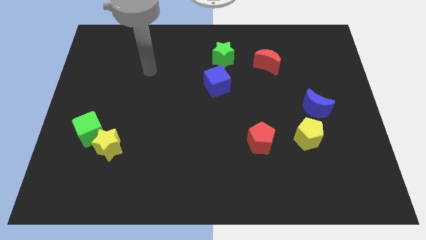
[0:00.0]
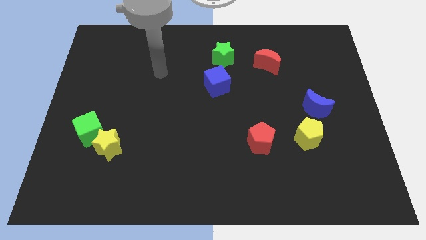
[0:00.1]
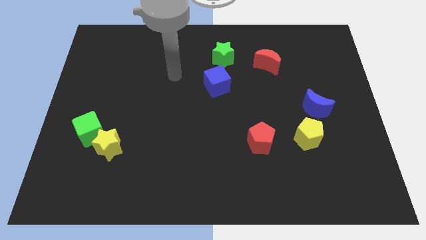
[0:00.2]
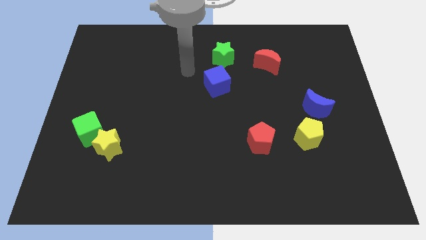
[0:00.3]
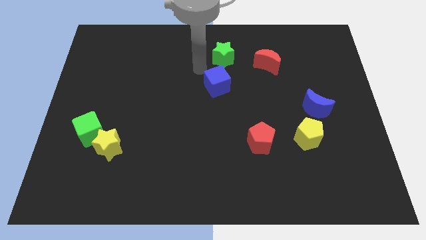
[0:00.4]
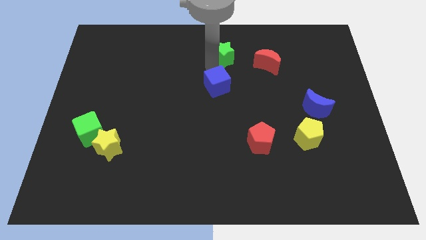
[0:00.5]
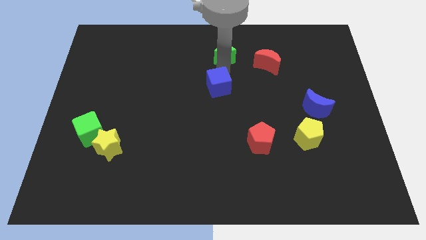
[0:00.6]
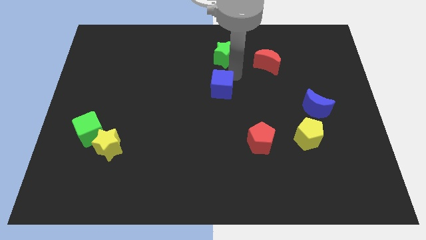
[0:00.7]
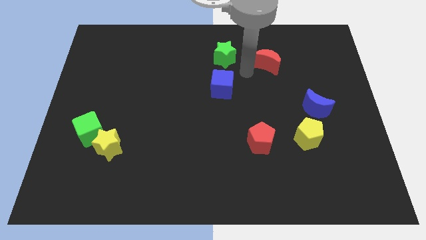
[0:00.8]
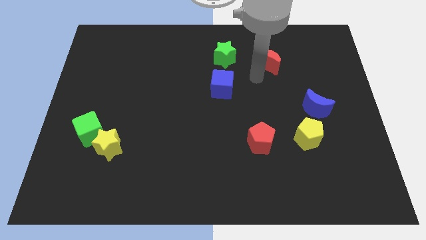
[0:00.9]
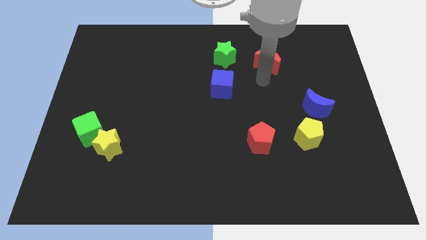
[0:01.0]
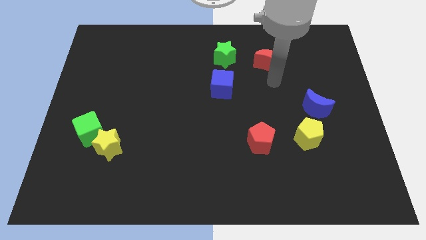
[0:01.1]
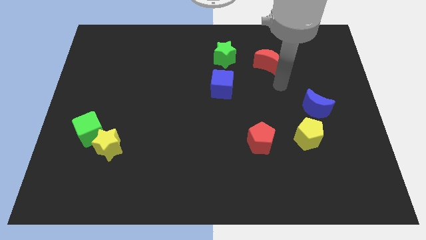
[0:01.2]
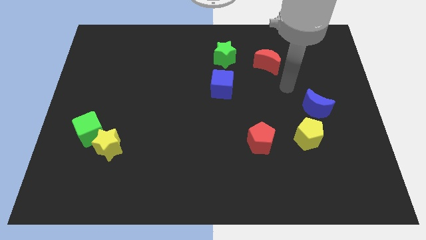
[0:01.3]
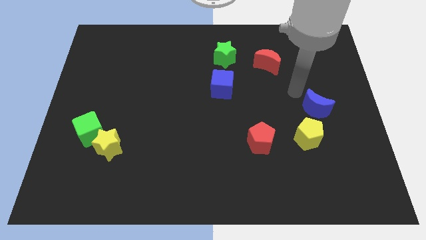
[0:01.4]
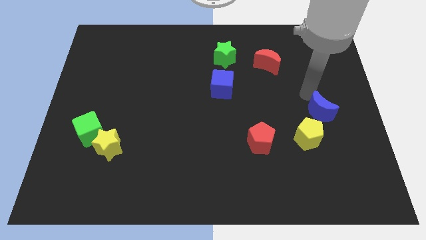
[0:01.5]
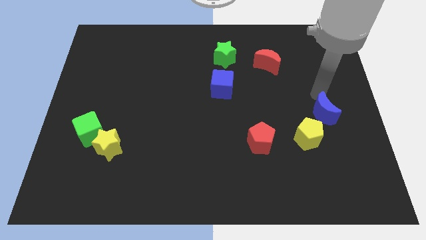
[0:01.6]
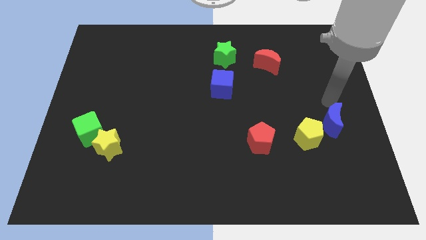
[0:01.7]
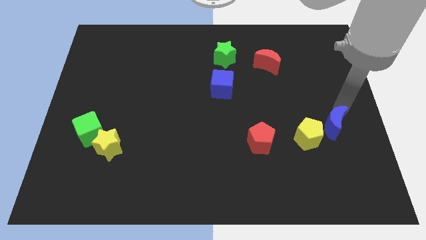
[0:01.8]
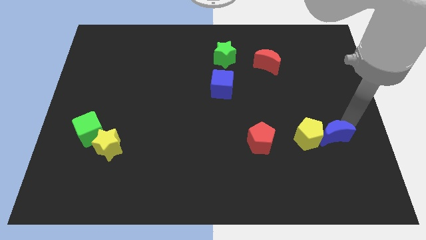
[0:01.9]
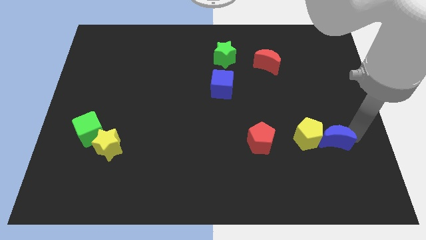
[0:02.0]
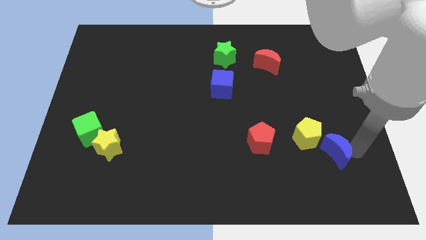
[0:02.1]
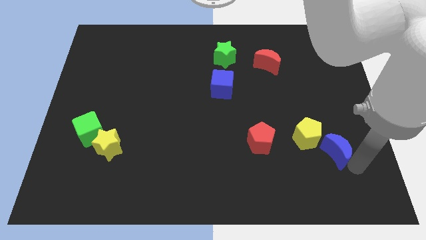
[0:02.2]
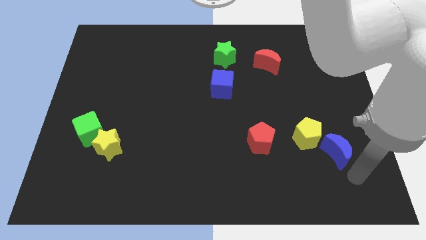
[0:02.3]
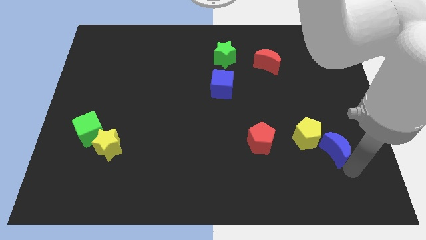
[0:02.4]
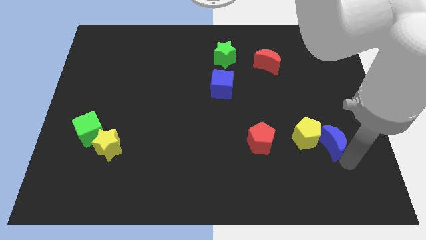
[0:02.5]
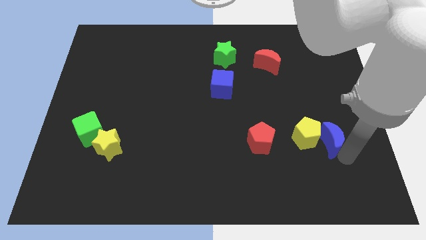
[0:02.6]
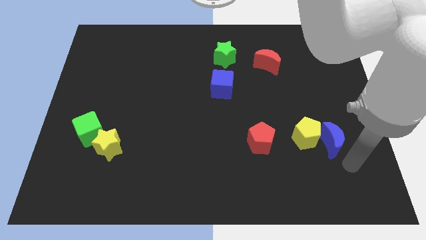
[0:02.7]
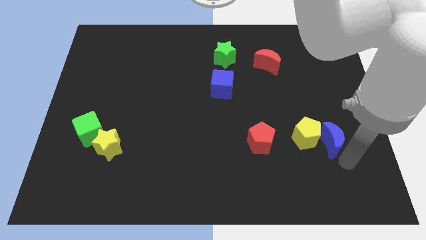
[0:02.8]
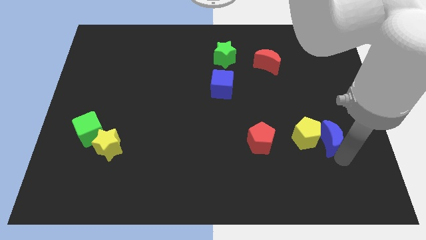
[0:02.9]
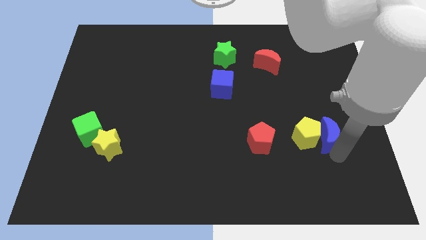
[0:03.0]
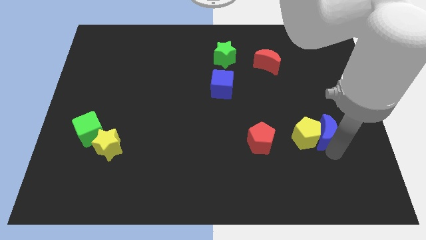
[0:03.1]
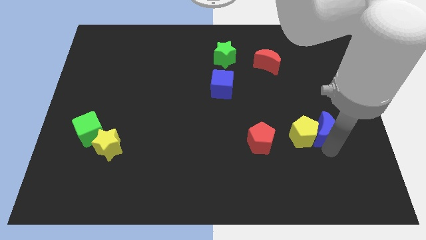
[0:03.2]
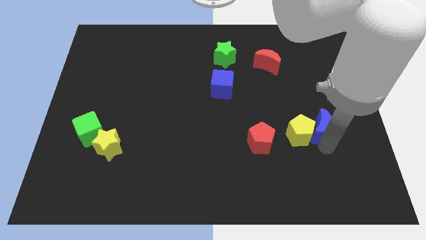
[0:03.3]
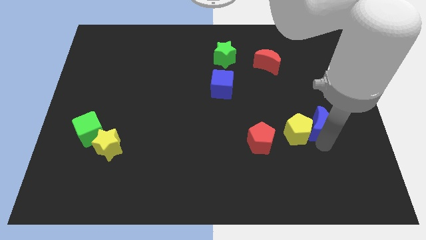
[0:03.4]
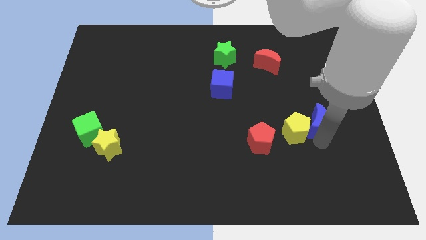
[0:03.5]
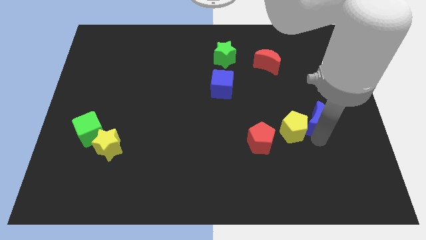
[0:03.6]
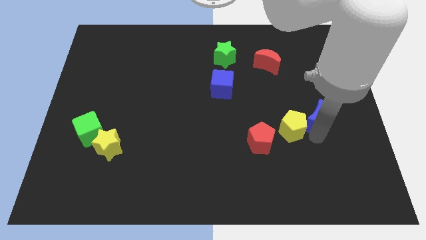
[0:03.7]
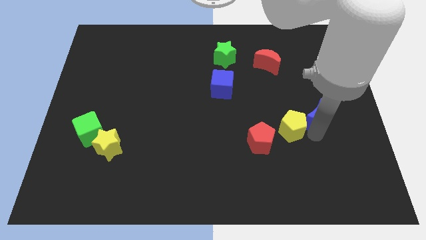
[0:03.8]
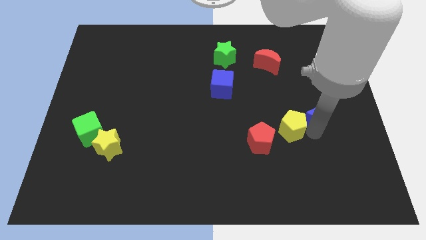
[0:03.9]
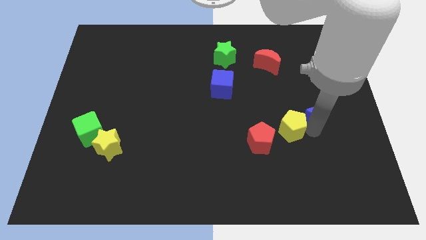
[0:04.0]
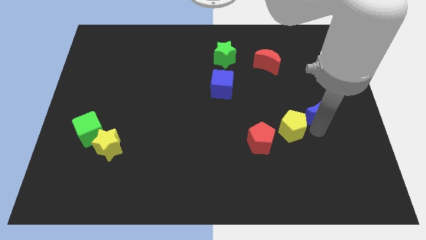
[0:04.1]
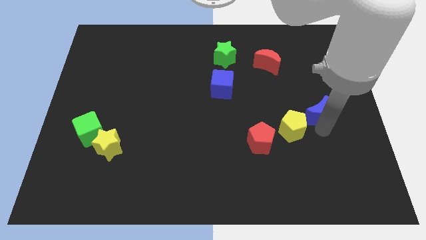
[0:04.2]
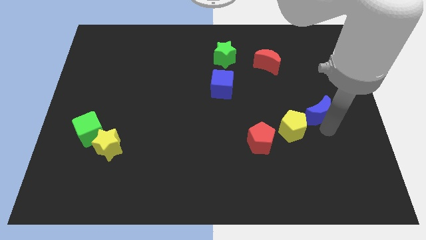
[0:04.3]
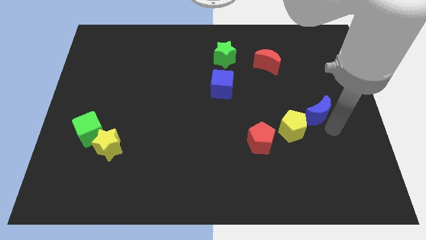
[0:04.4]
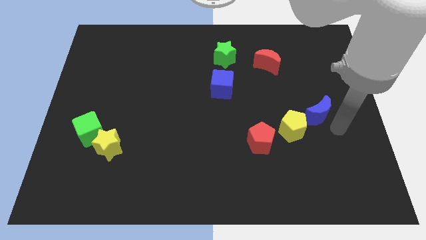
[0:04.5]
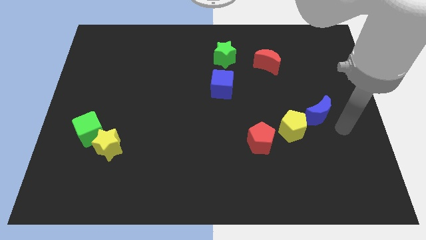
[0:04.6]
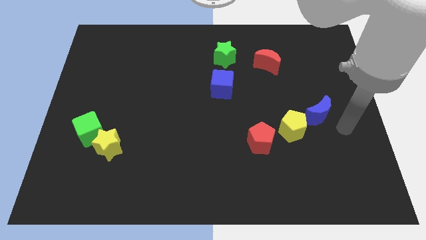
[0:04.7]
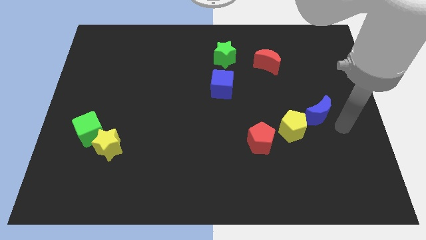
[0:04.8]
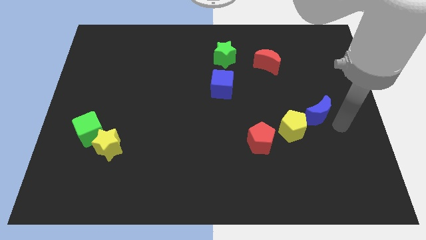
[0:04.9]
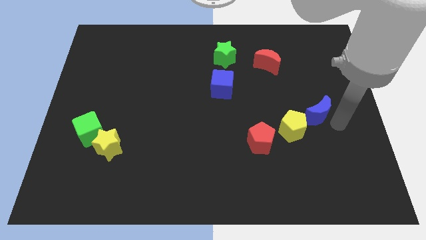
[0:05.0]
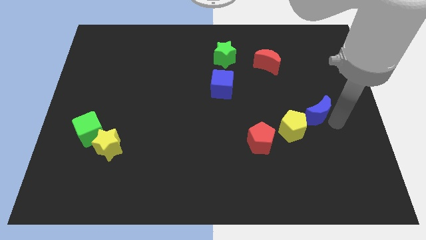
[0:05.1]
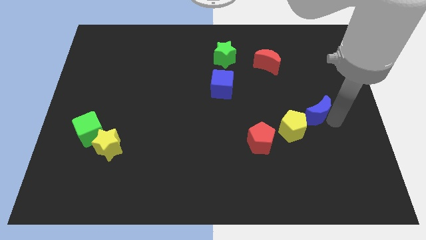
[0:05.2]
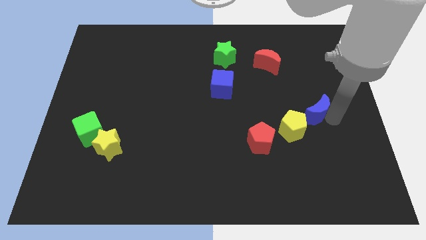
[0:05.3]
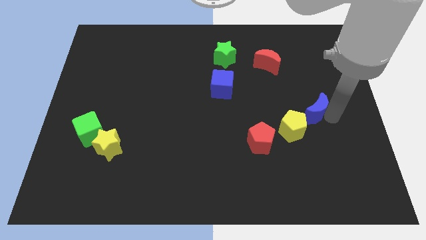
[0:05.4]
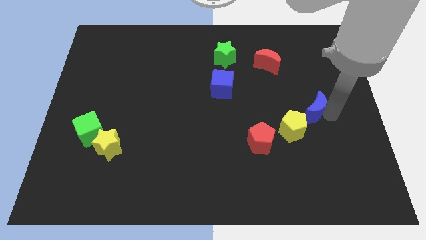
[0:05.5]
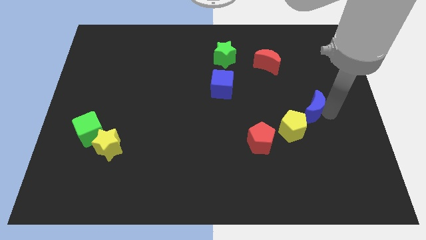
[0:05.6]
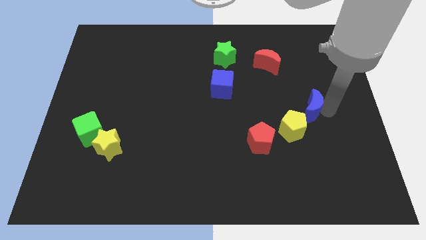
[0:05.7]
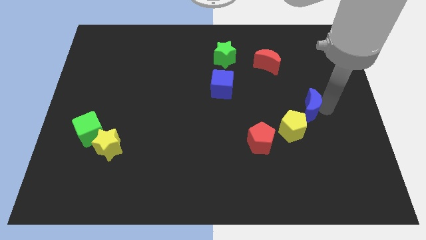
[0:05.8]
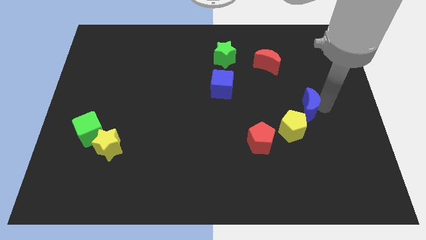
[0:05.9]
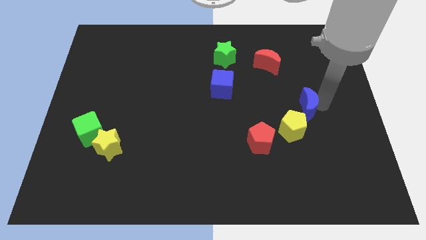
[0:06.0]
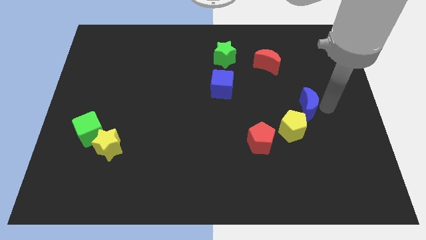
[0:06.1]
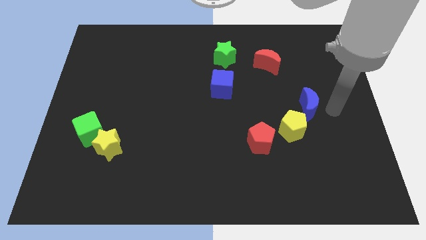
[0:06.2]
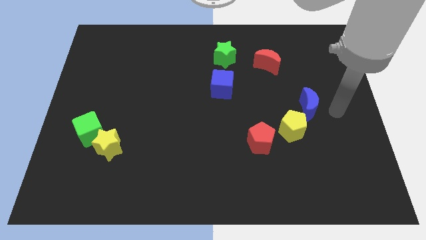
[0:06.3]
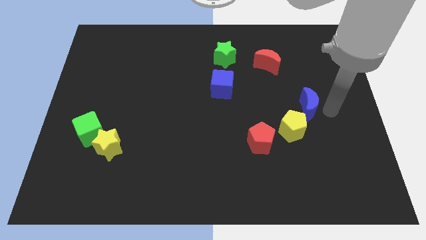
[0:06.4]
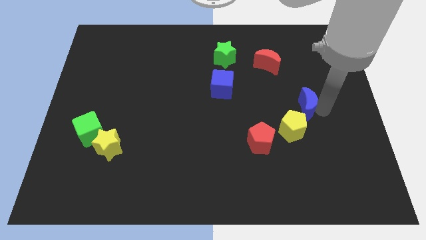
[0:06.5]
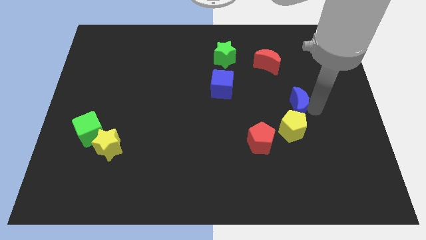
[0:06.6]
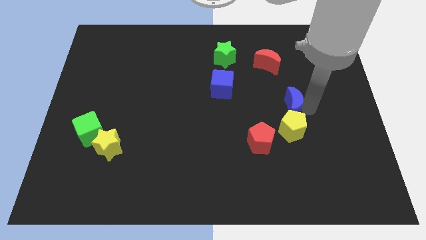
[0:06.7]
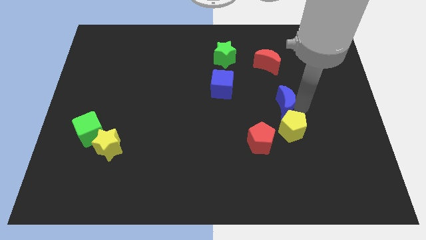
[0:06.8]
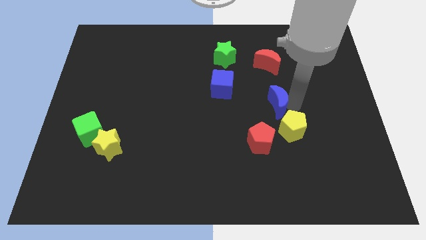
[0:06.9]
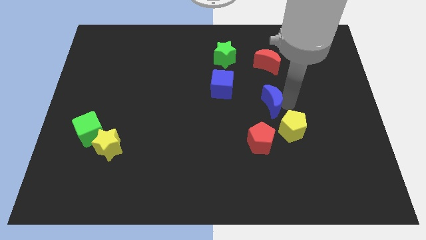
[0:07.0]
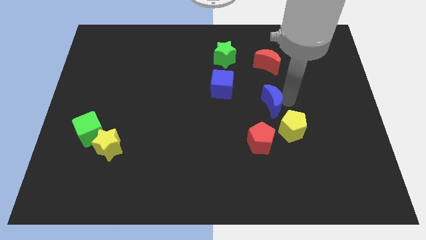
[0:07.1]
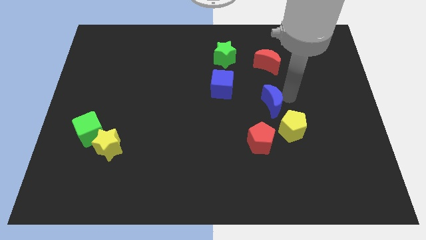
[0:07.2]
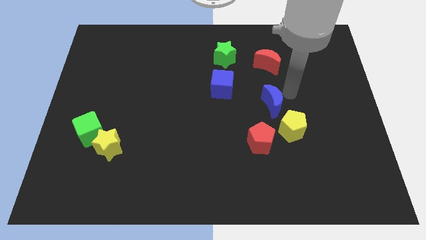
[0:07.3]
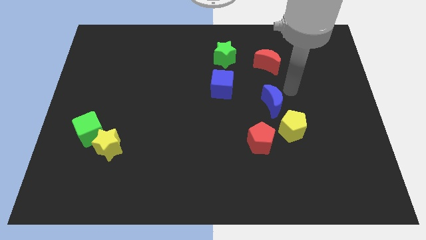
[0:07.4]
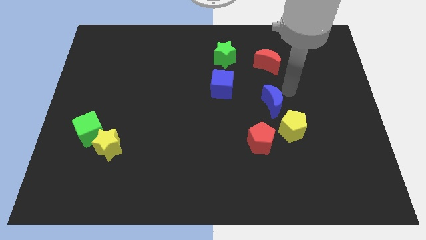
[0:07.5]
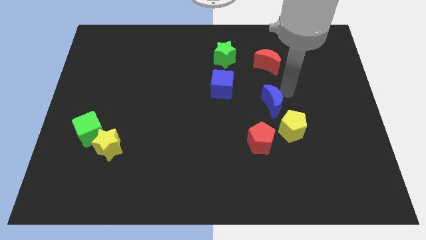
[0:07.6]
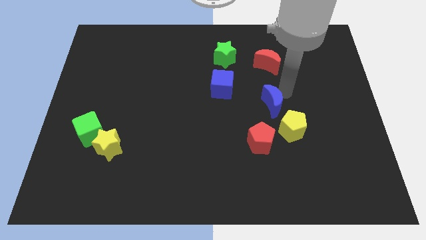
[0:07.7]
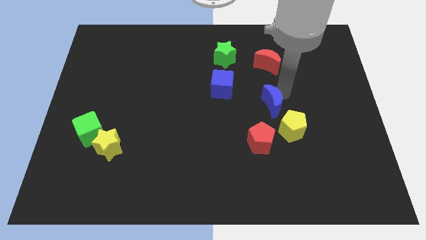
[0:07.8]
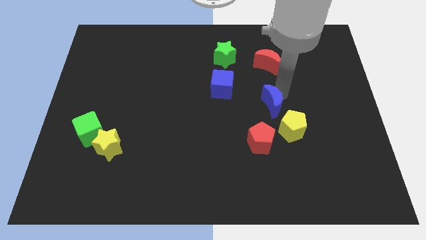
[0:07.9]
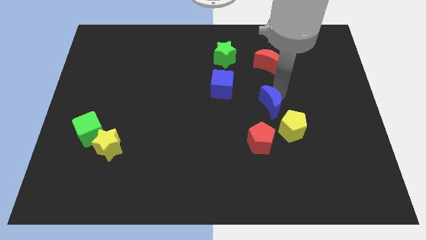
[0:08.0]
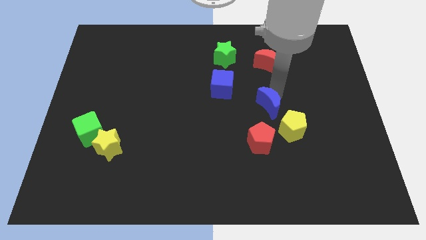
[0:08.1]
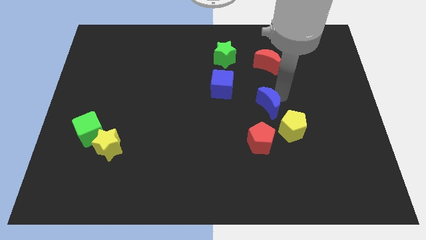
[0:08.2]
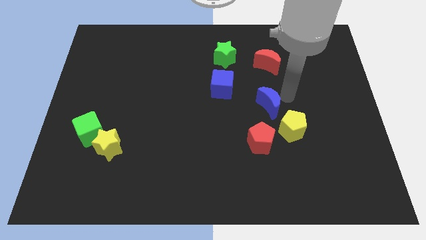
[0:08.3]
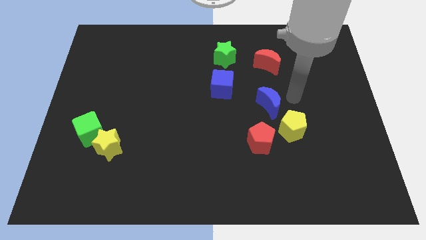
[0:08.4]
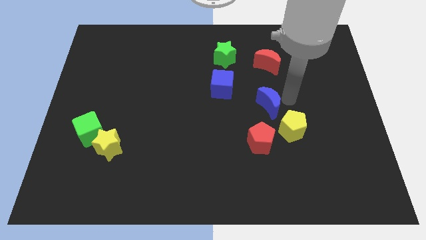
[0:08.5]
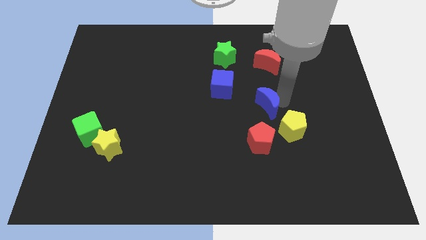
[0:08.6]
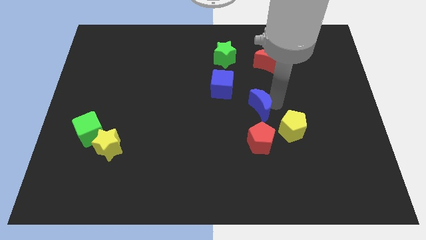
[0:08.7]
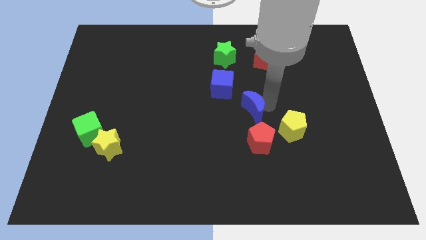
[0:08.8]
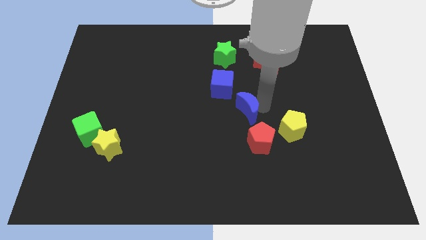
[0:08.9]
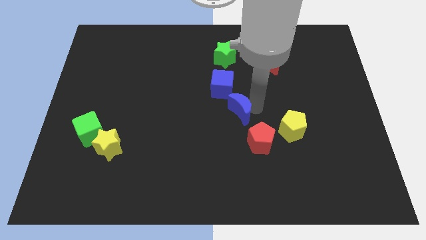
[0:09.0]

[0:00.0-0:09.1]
move the blue moon to the bottom side of the blue cube
